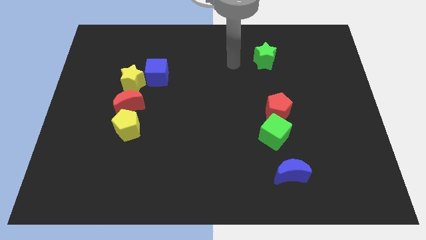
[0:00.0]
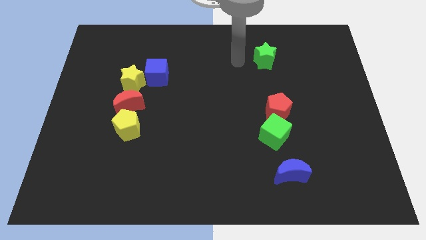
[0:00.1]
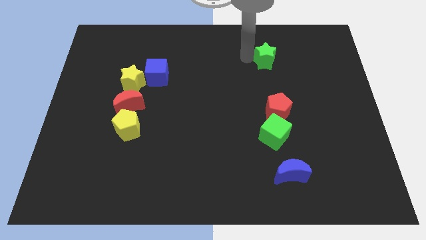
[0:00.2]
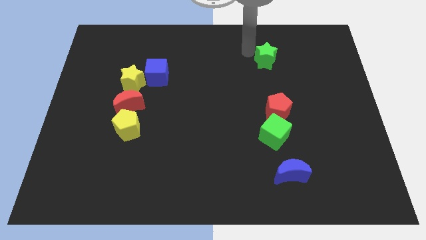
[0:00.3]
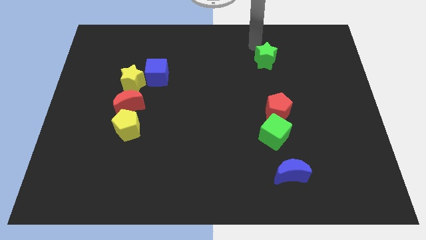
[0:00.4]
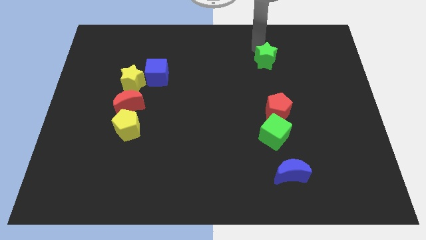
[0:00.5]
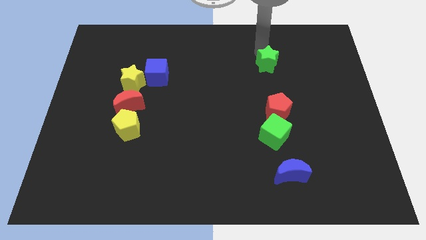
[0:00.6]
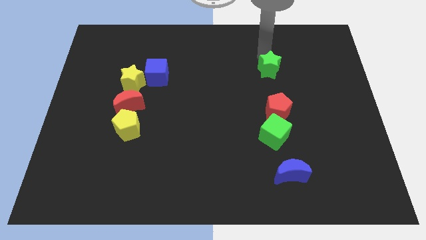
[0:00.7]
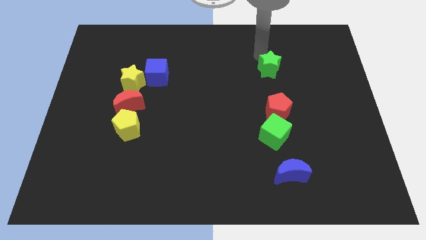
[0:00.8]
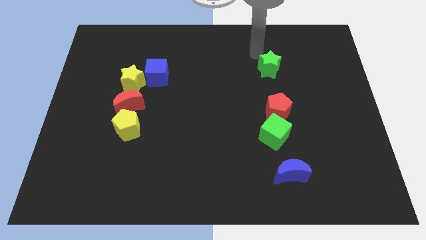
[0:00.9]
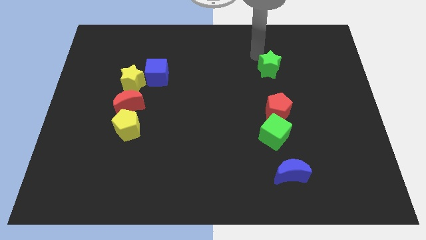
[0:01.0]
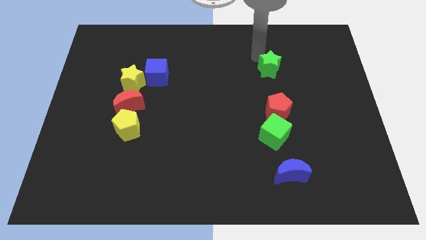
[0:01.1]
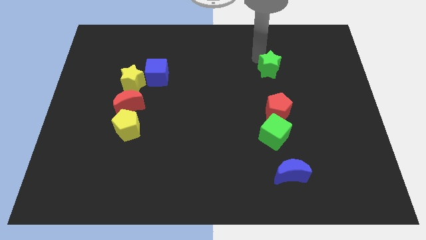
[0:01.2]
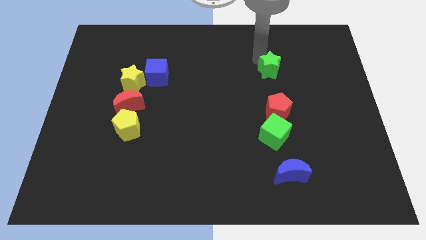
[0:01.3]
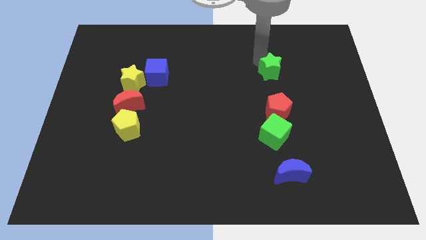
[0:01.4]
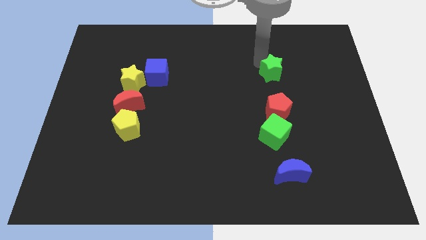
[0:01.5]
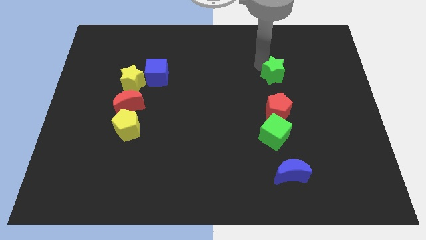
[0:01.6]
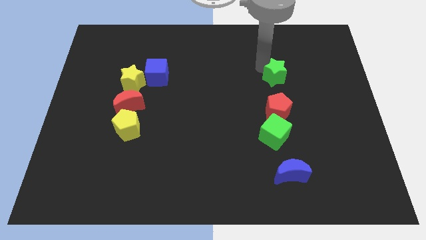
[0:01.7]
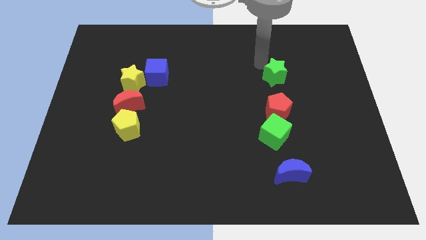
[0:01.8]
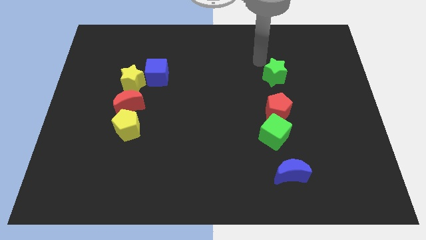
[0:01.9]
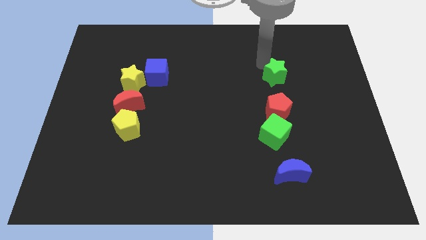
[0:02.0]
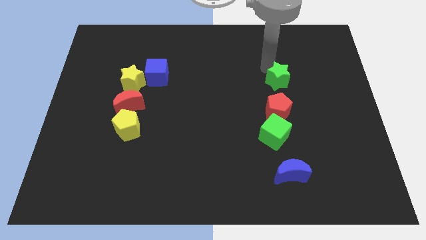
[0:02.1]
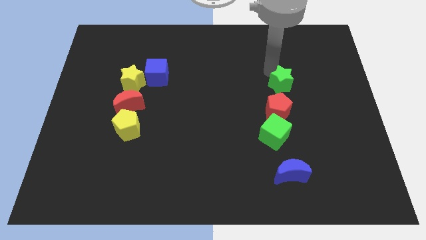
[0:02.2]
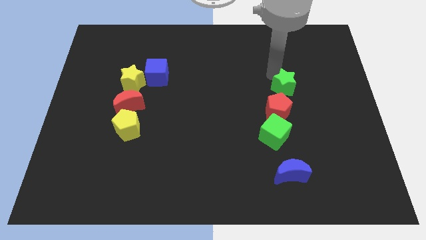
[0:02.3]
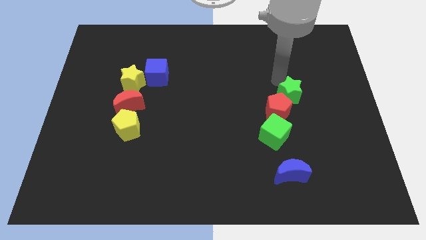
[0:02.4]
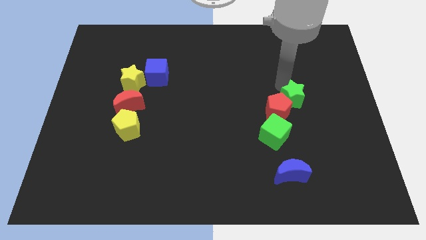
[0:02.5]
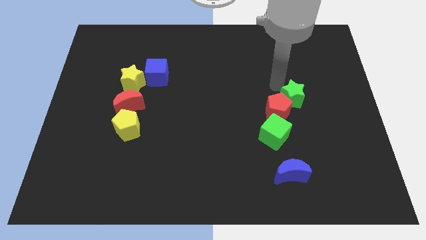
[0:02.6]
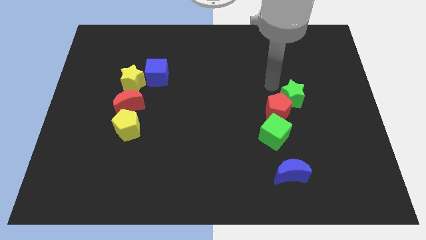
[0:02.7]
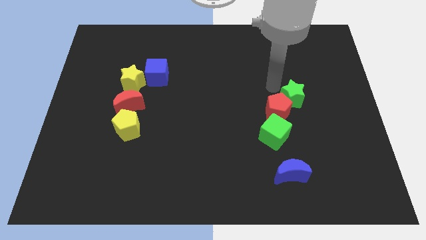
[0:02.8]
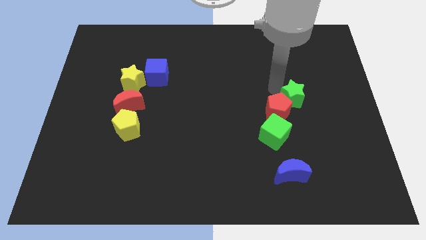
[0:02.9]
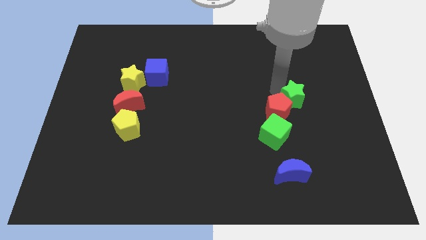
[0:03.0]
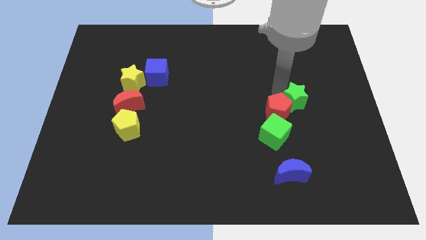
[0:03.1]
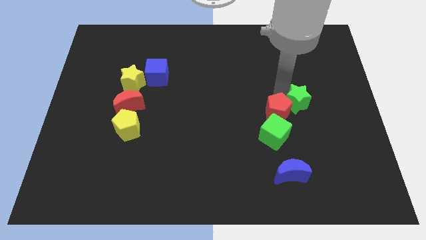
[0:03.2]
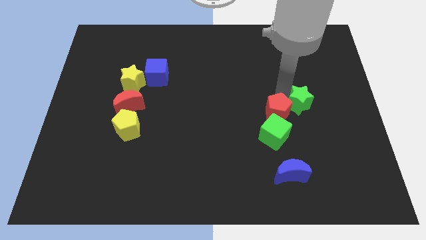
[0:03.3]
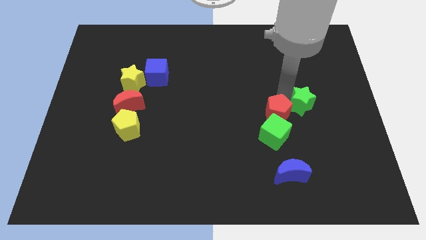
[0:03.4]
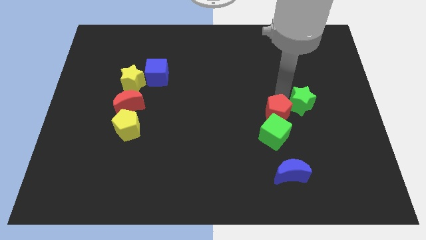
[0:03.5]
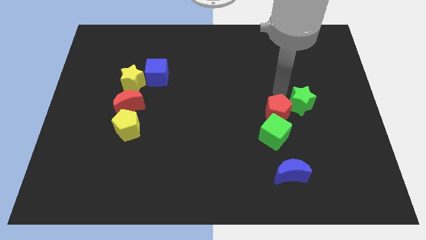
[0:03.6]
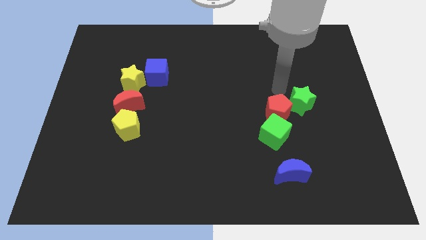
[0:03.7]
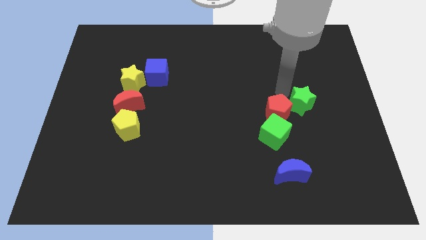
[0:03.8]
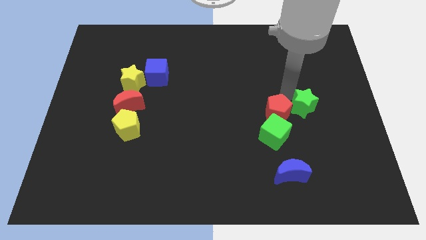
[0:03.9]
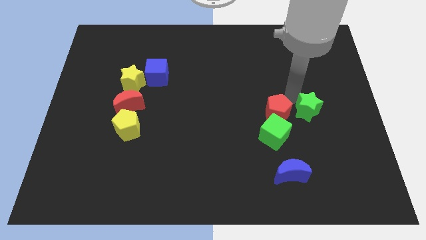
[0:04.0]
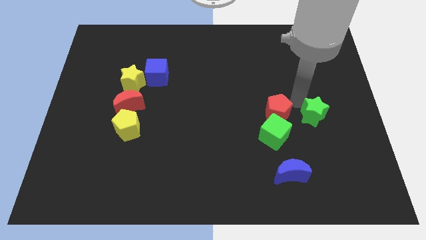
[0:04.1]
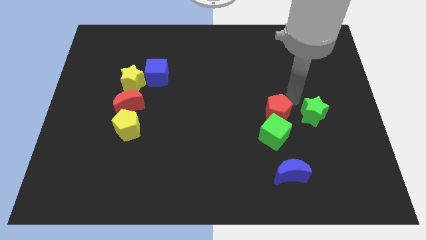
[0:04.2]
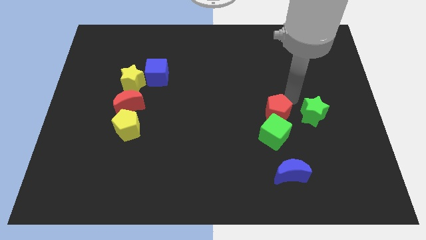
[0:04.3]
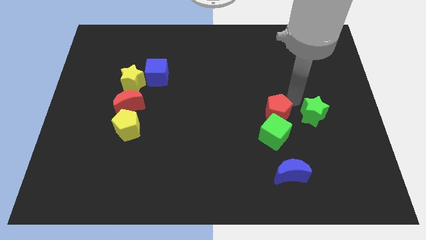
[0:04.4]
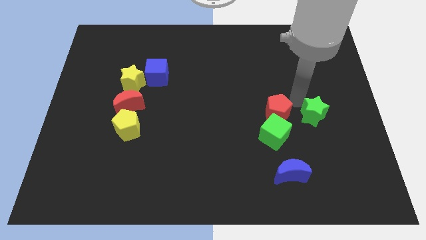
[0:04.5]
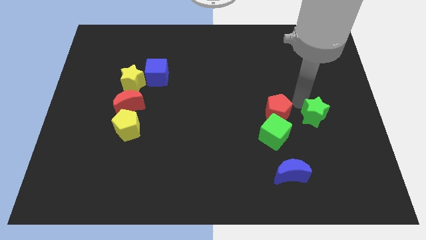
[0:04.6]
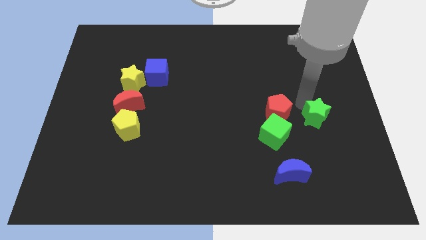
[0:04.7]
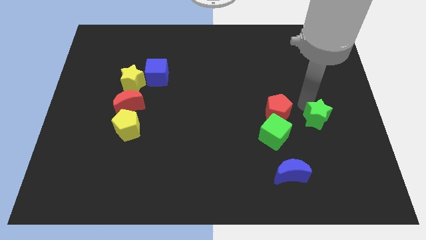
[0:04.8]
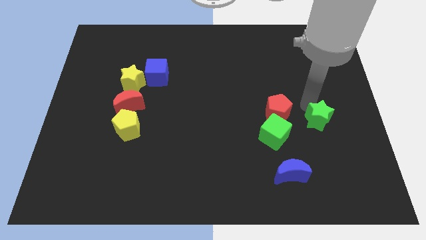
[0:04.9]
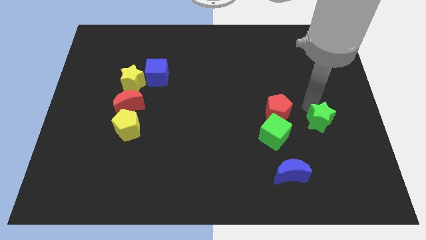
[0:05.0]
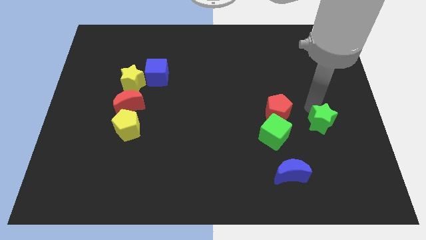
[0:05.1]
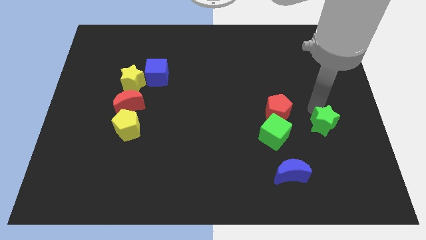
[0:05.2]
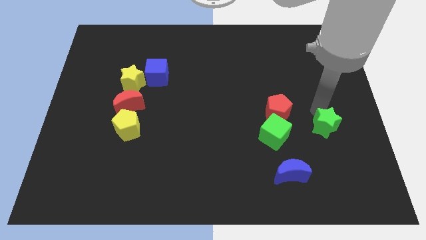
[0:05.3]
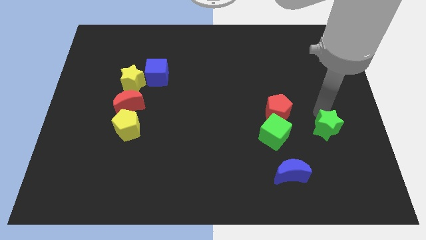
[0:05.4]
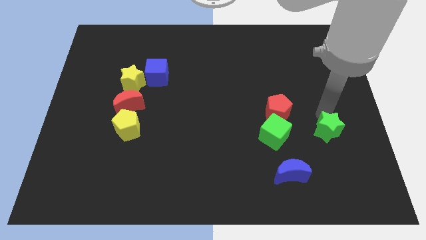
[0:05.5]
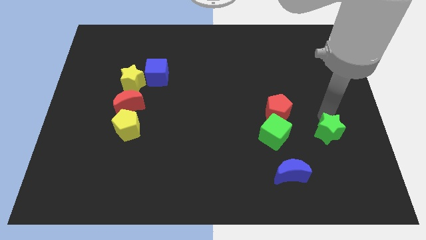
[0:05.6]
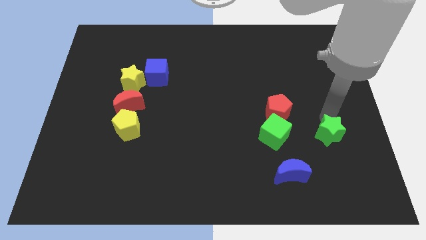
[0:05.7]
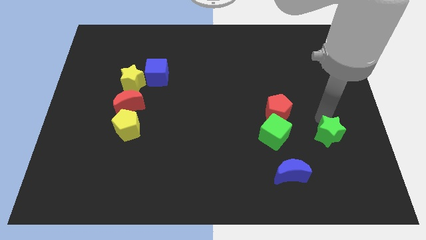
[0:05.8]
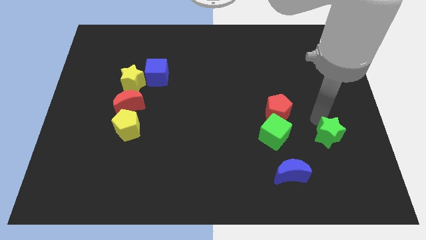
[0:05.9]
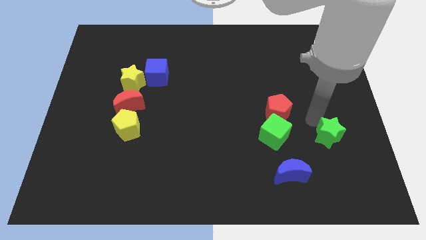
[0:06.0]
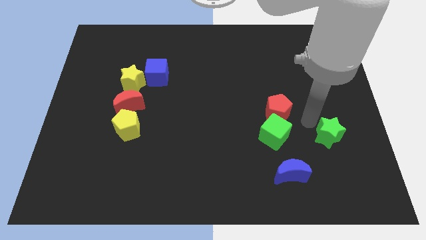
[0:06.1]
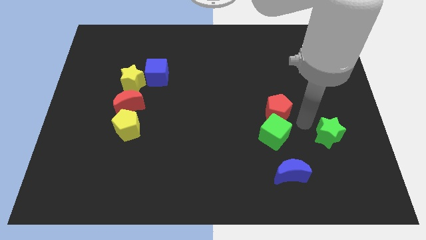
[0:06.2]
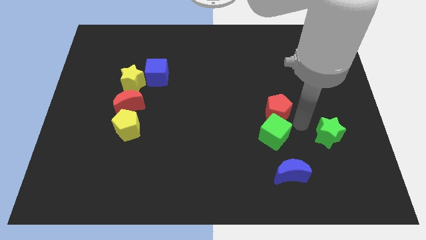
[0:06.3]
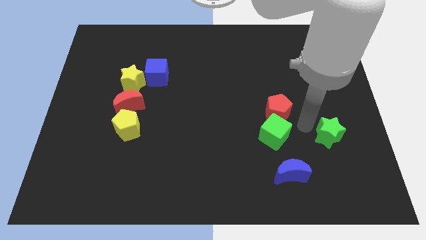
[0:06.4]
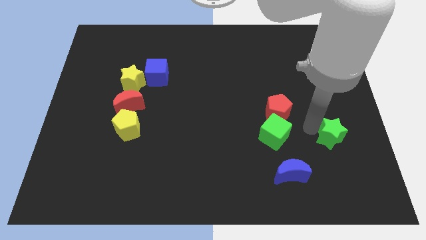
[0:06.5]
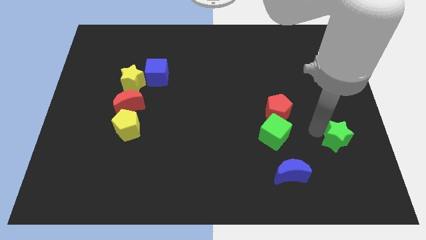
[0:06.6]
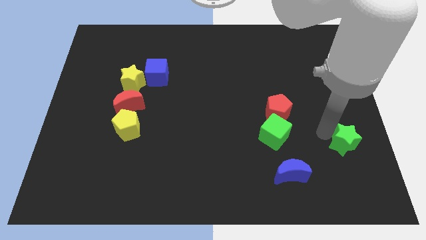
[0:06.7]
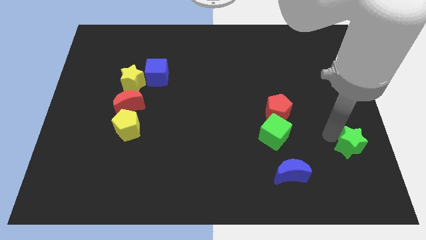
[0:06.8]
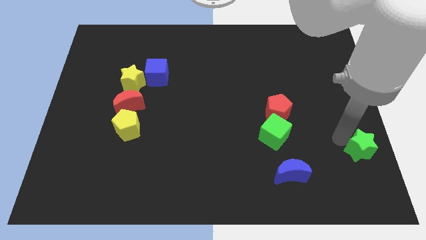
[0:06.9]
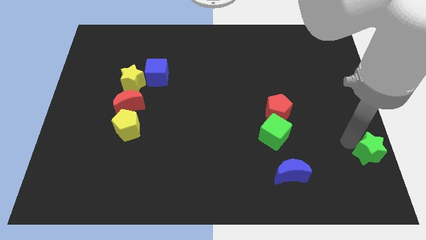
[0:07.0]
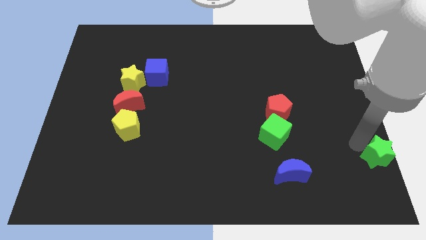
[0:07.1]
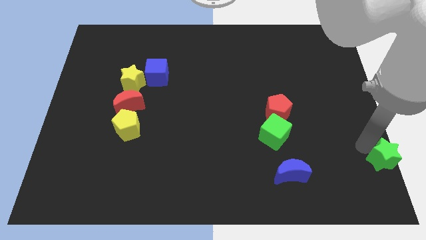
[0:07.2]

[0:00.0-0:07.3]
push the green star to the bottom right
